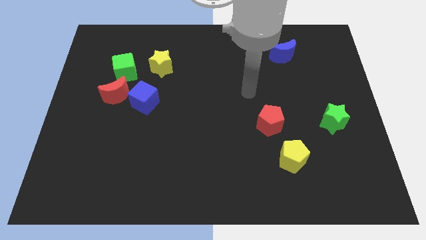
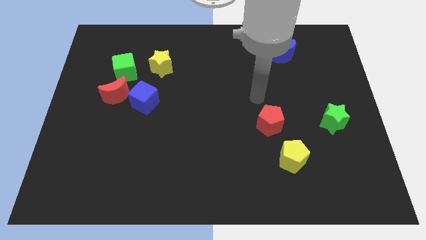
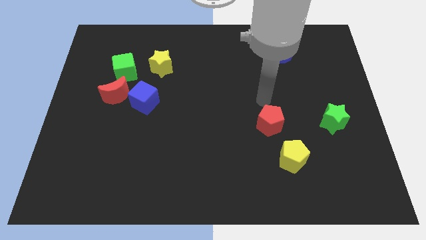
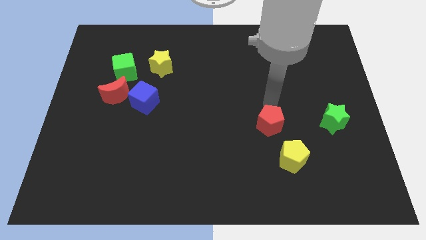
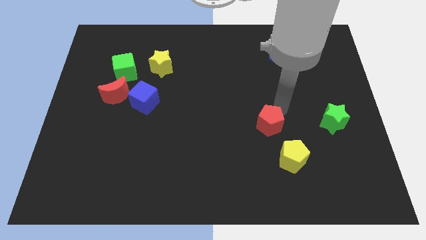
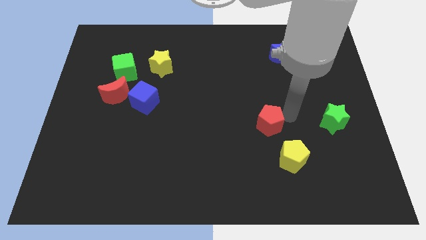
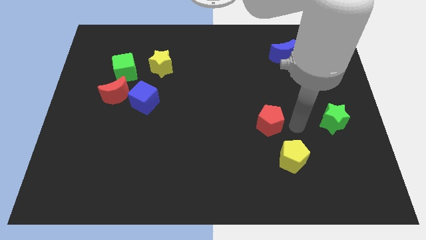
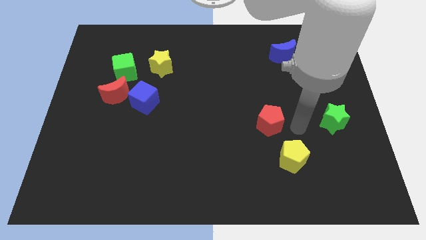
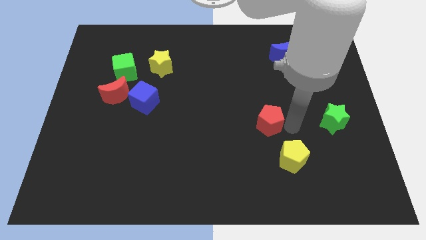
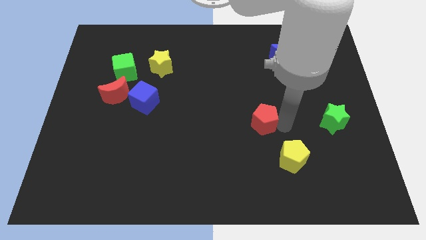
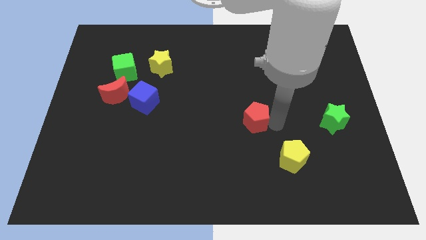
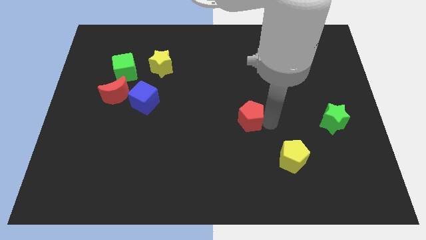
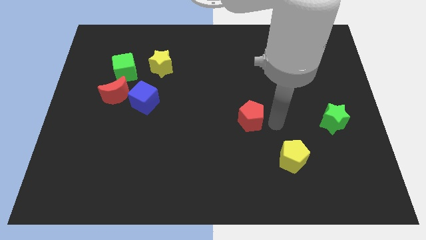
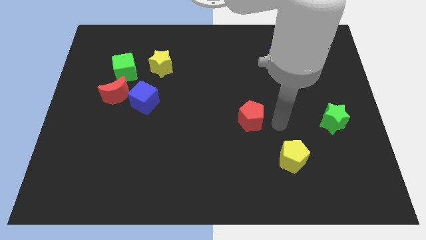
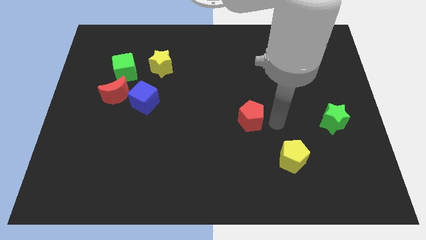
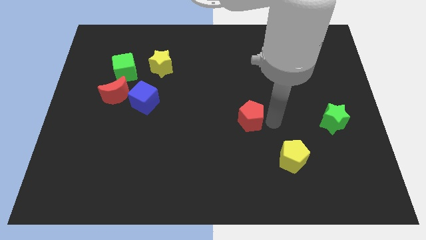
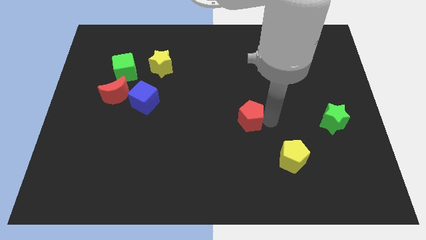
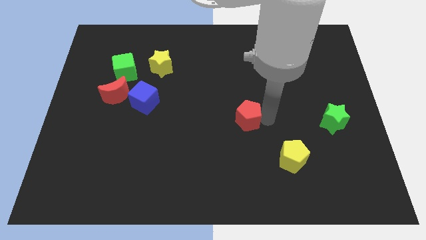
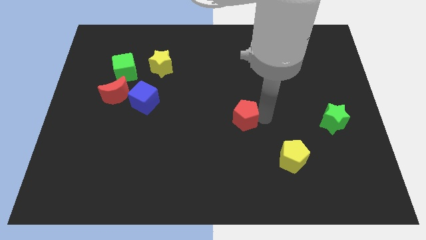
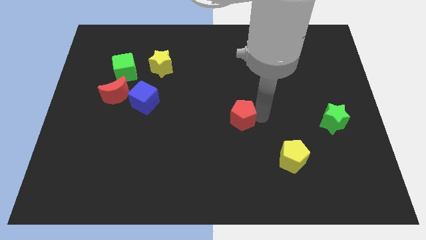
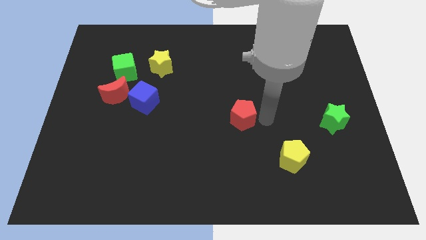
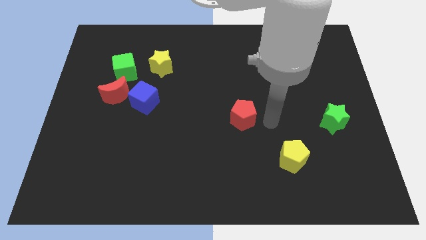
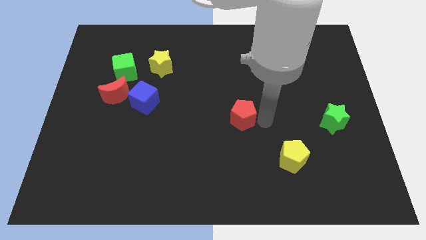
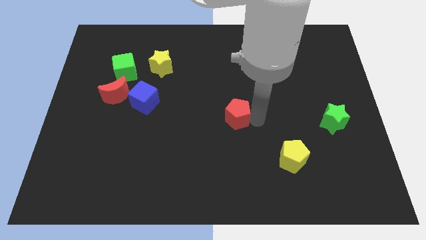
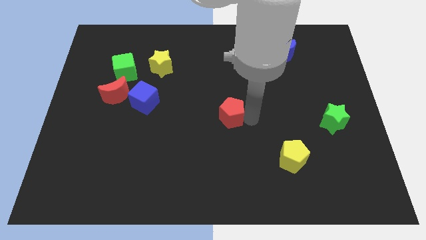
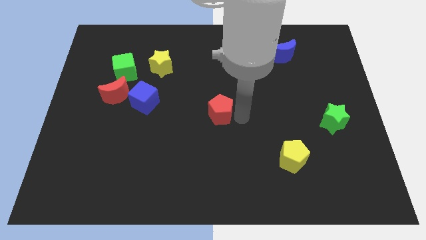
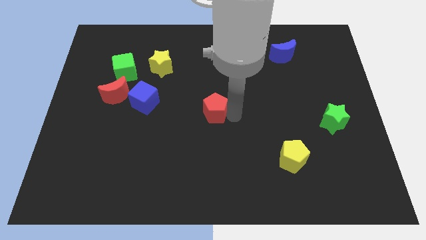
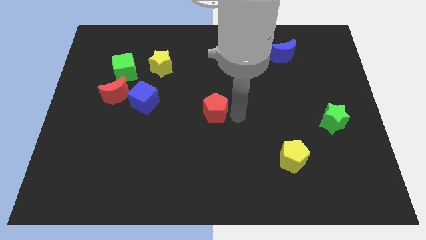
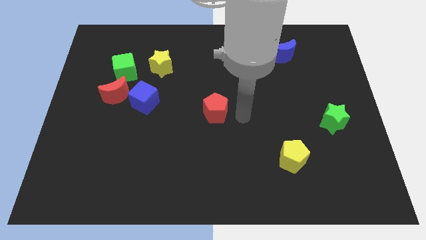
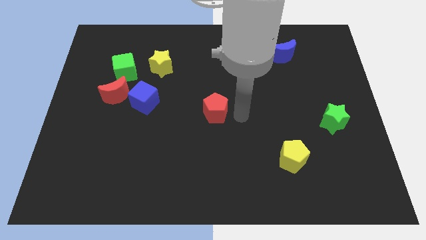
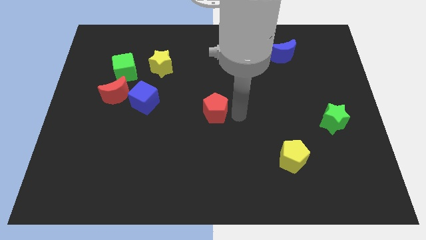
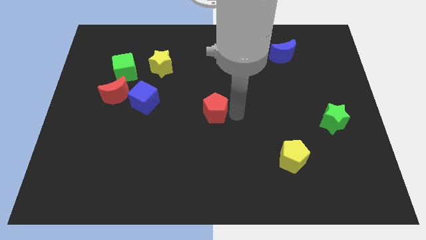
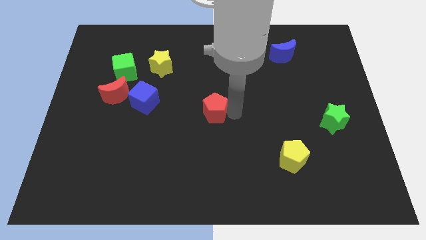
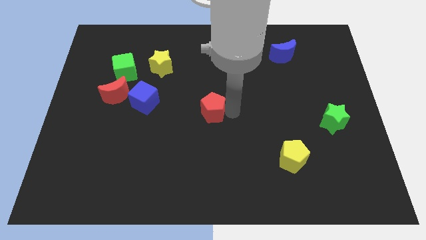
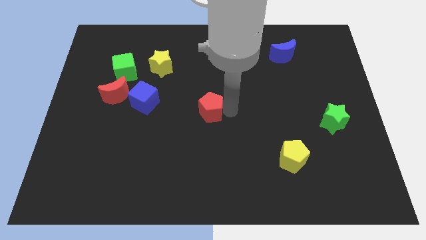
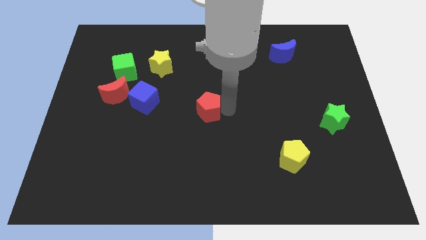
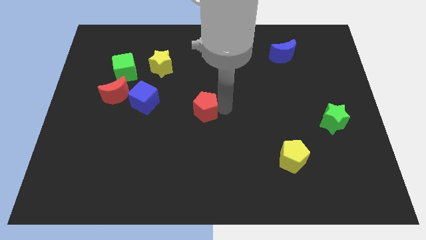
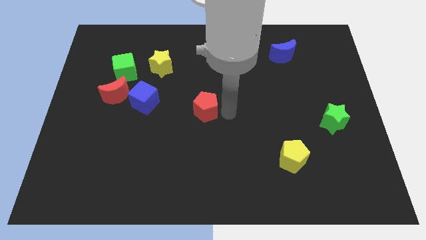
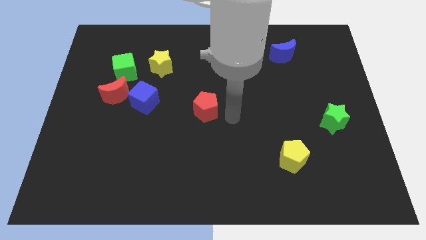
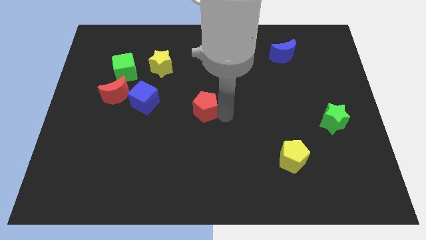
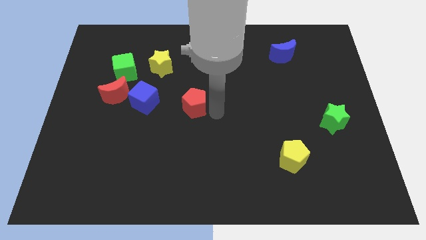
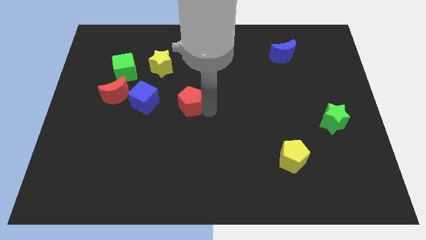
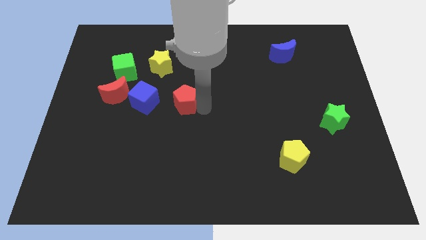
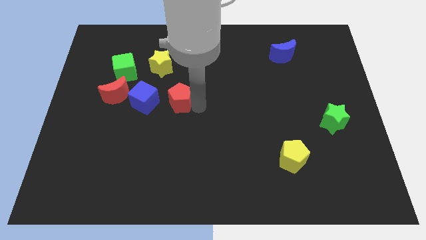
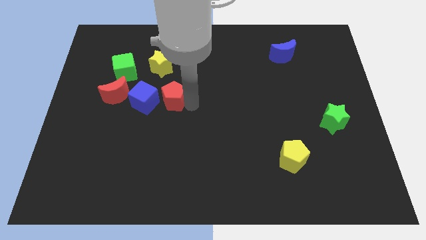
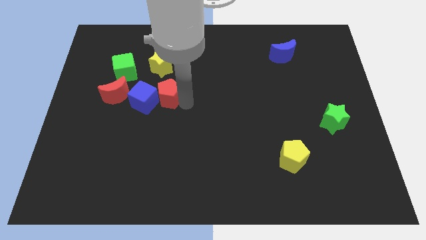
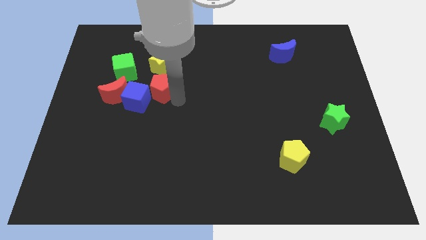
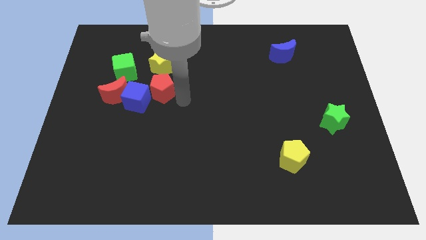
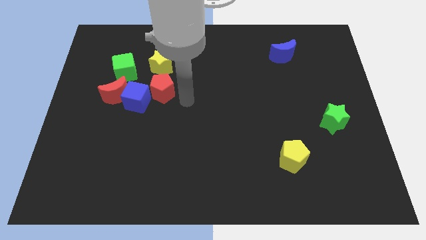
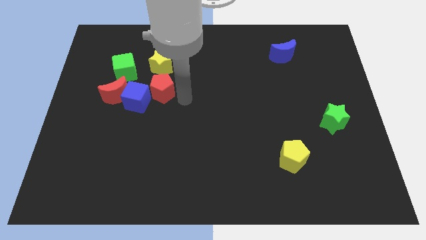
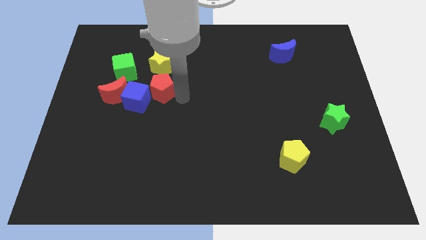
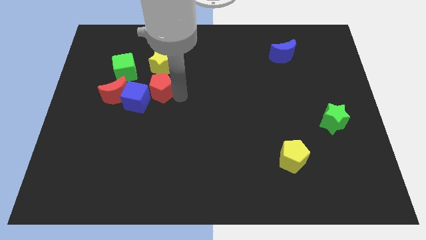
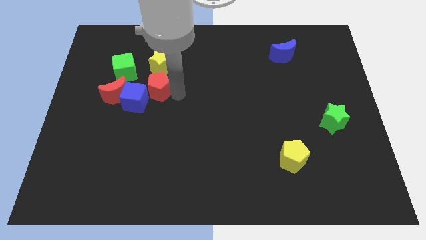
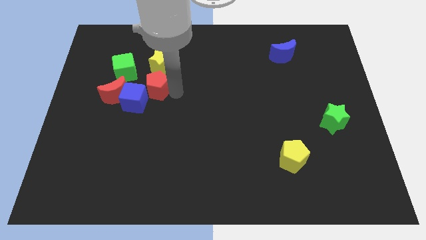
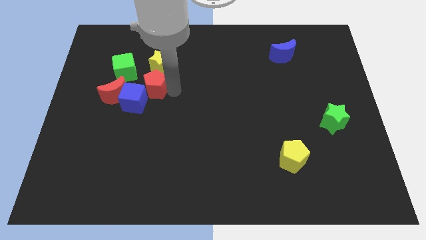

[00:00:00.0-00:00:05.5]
move the red pentagon to the bottom left of the yellow star

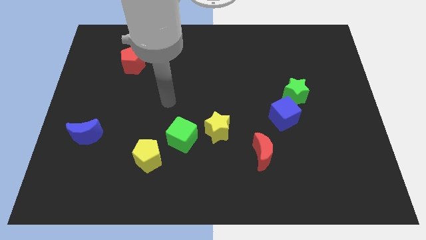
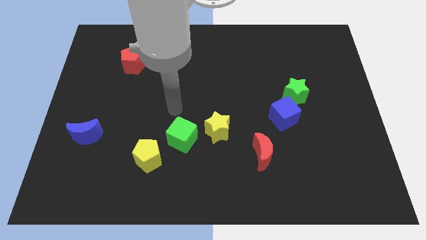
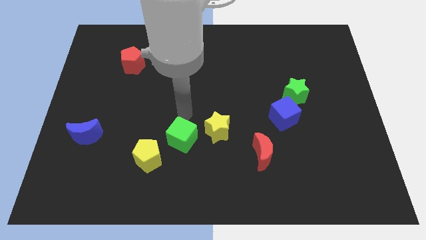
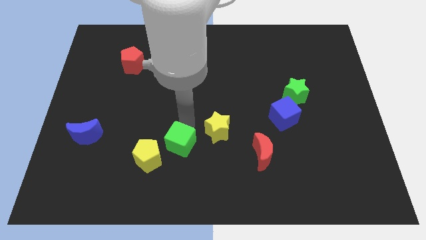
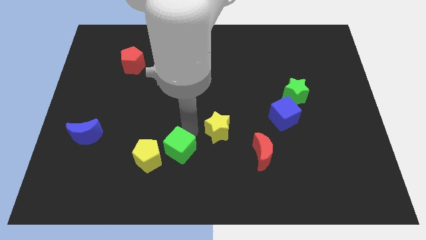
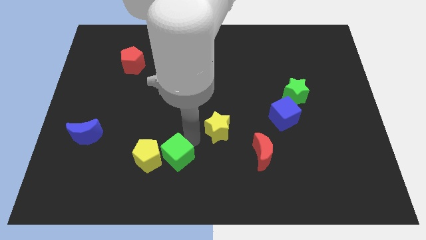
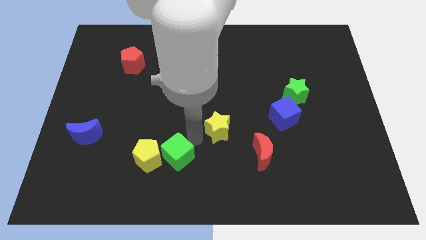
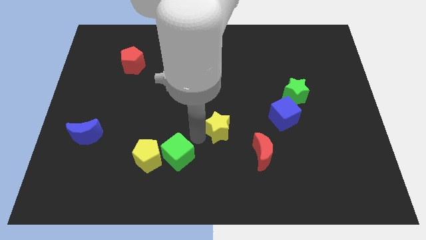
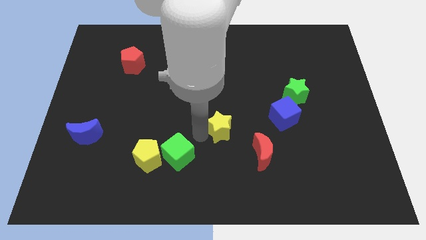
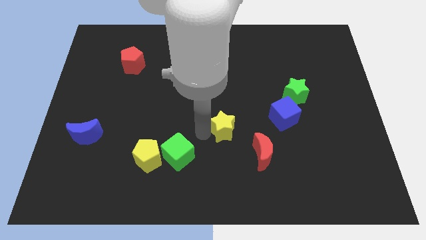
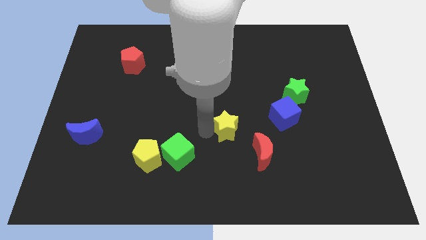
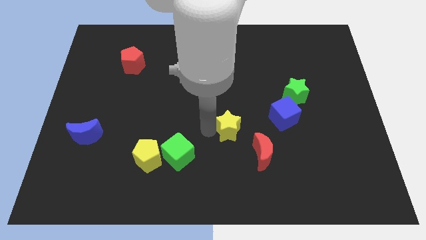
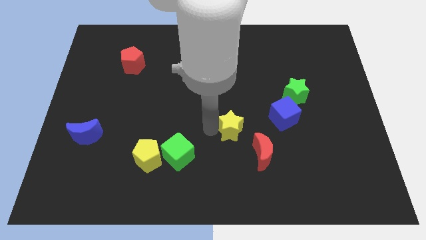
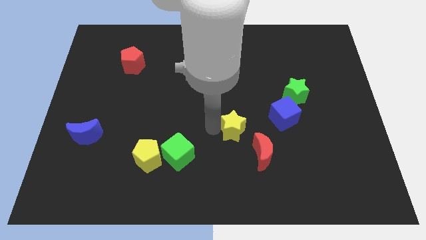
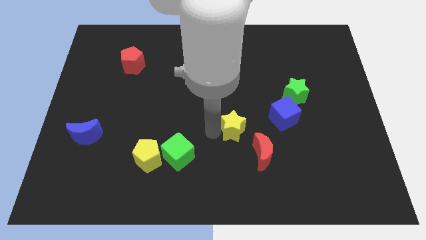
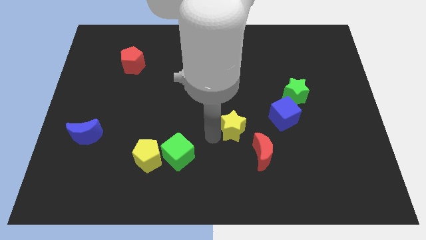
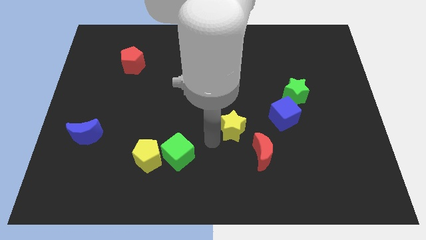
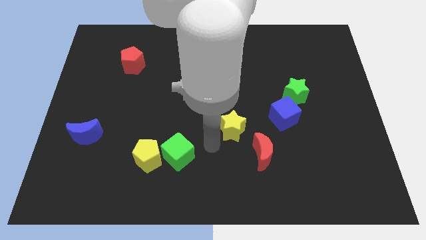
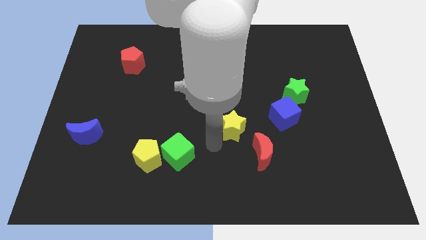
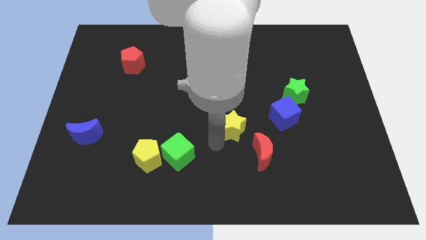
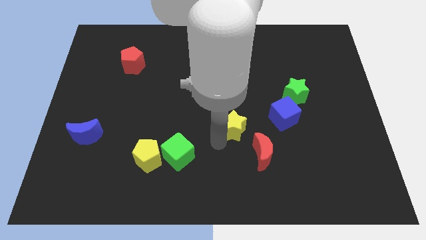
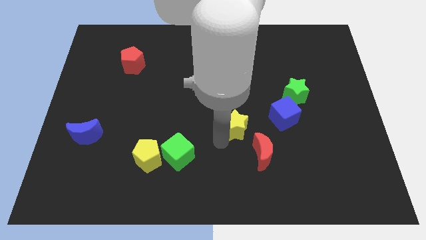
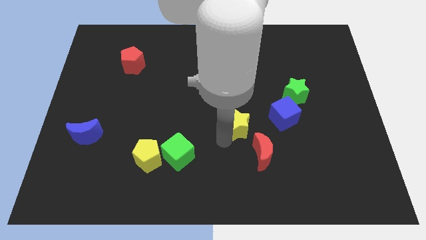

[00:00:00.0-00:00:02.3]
move the yellow star above the red moon

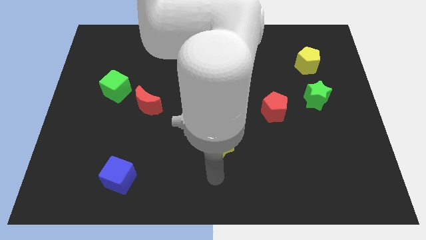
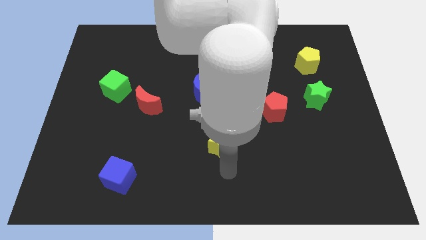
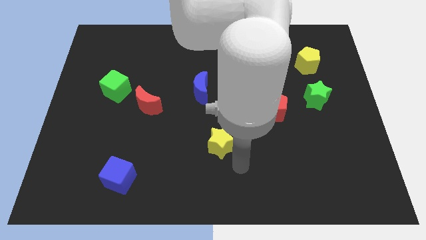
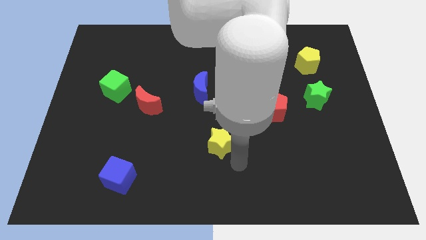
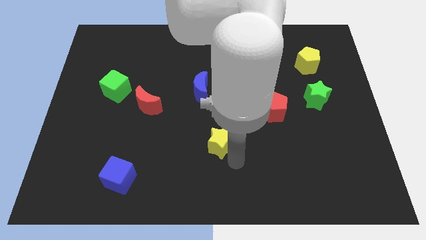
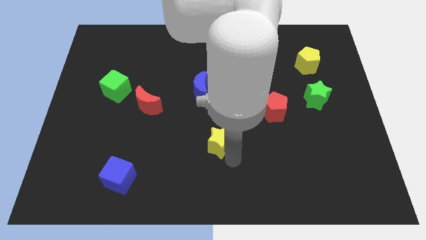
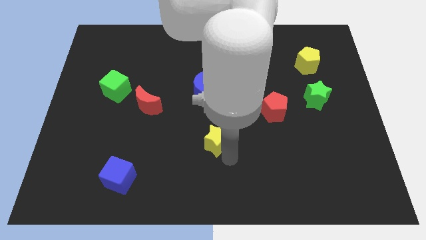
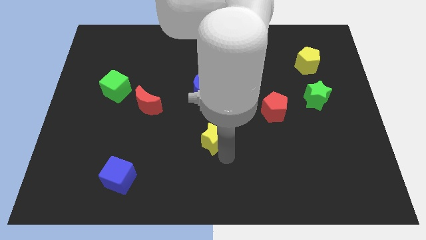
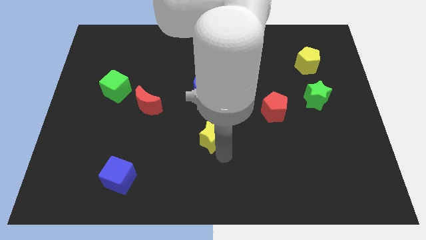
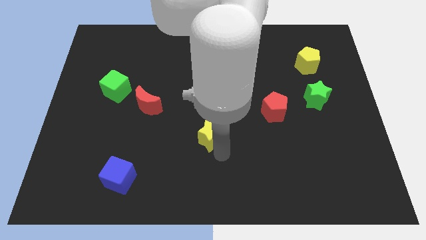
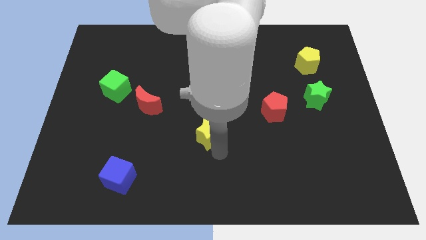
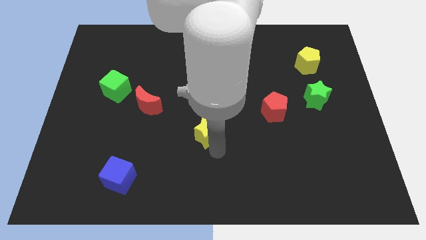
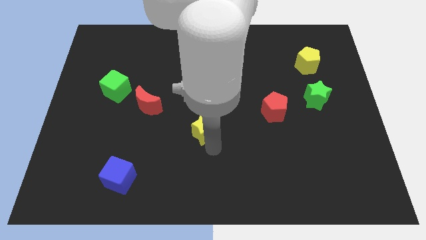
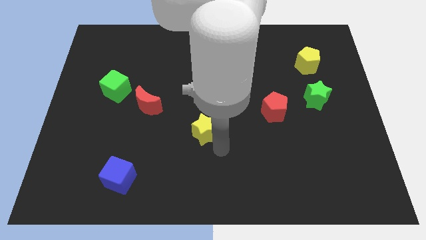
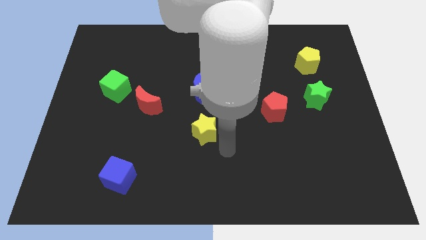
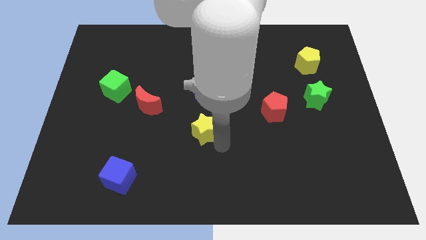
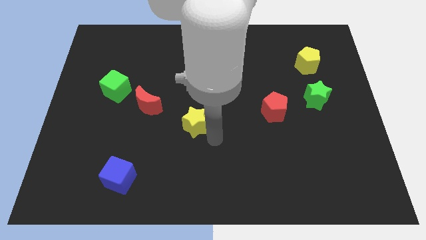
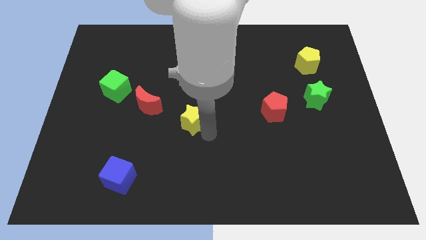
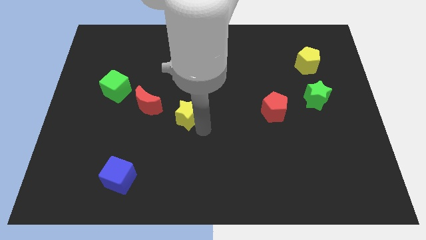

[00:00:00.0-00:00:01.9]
move the yellow star to the bottom left of the blue moon
